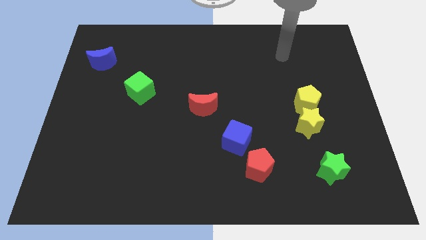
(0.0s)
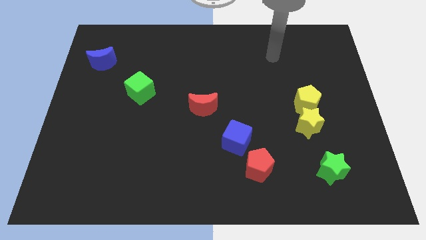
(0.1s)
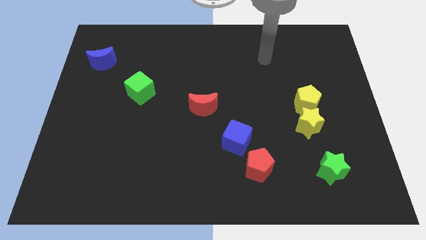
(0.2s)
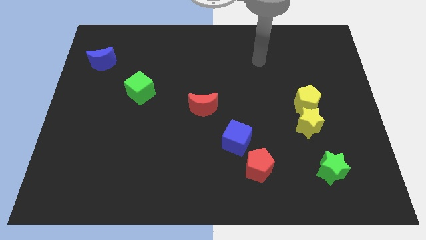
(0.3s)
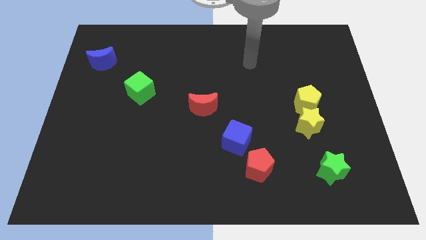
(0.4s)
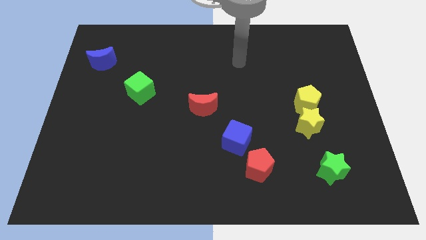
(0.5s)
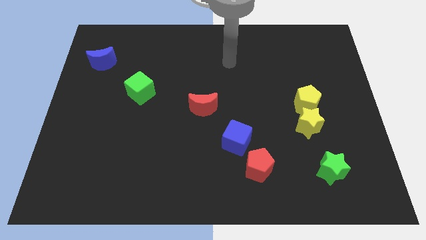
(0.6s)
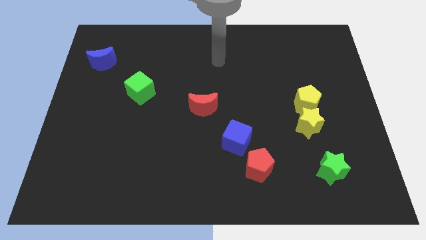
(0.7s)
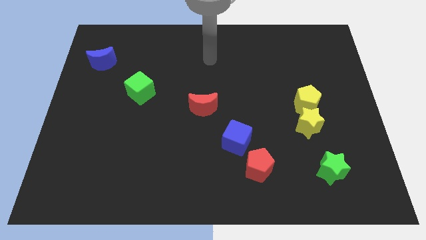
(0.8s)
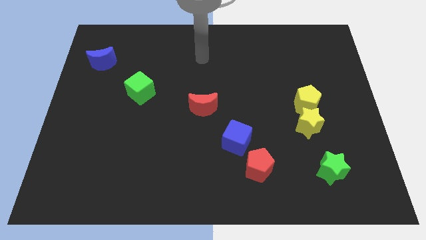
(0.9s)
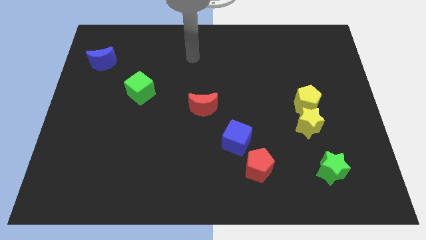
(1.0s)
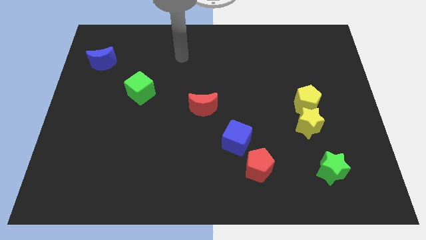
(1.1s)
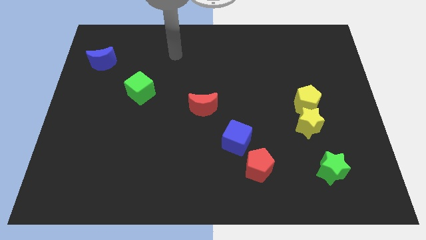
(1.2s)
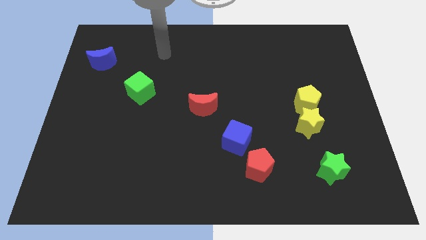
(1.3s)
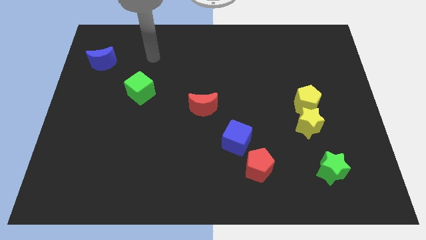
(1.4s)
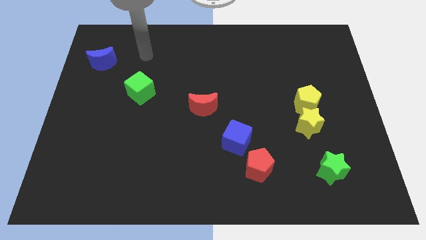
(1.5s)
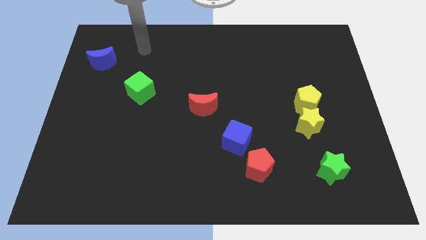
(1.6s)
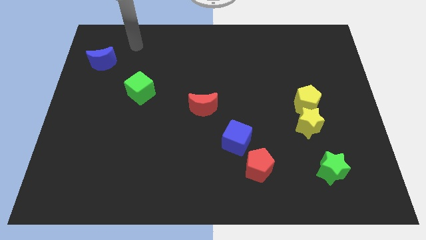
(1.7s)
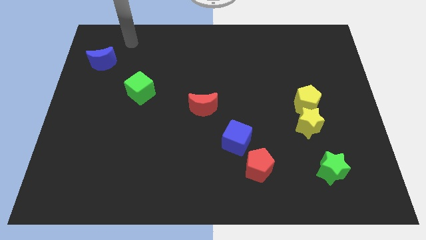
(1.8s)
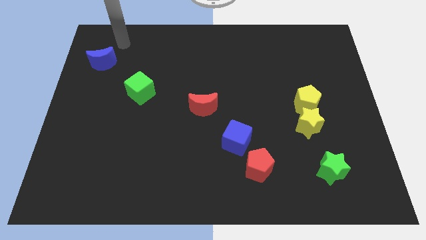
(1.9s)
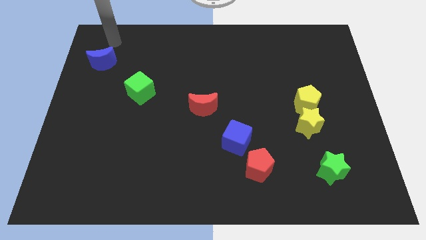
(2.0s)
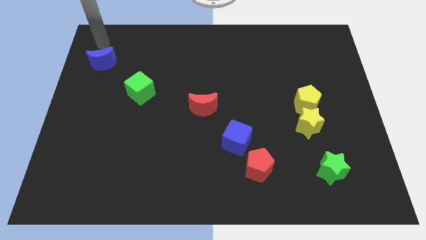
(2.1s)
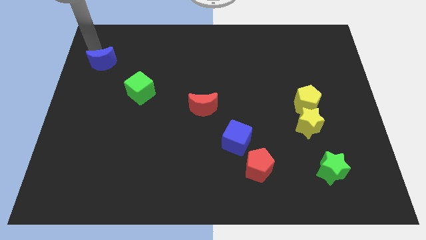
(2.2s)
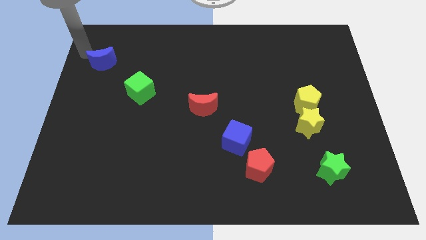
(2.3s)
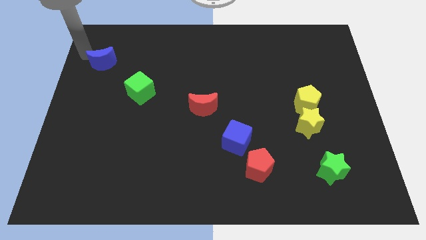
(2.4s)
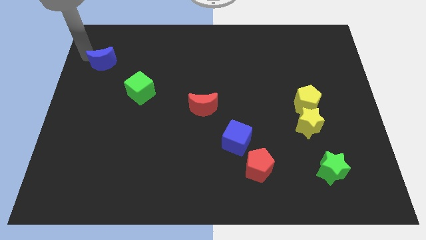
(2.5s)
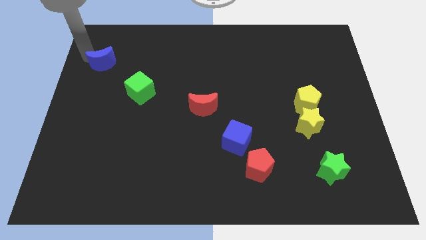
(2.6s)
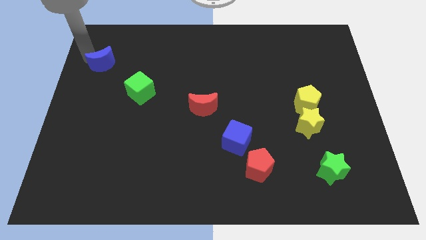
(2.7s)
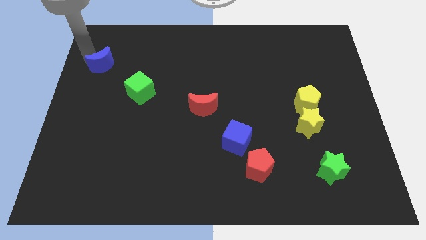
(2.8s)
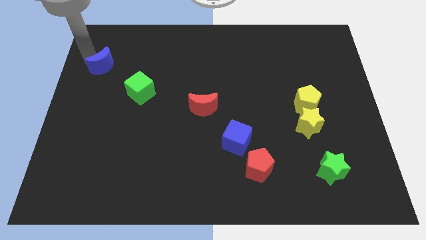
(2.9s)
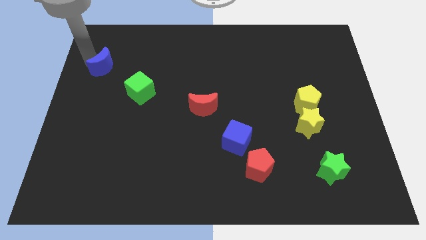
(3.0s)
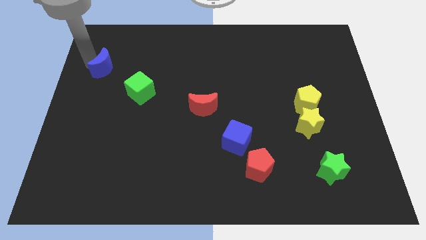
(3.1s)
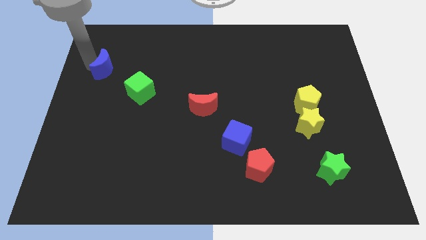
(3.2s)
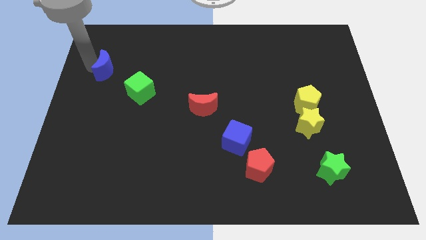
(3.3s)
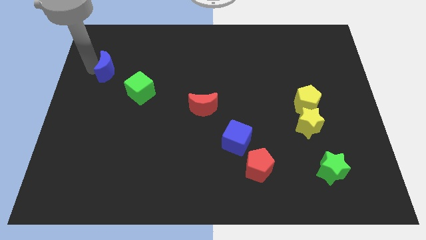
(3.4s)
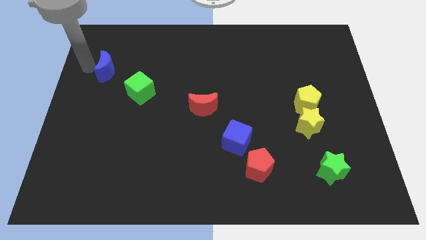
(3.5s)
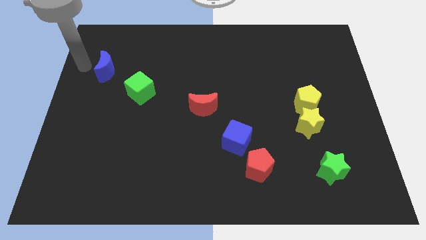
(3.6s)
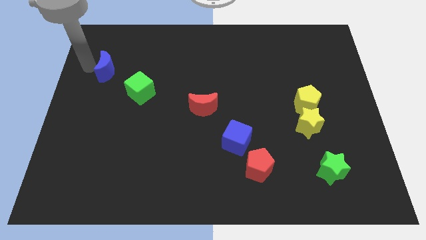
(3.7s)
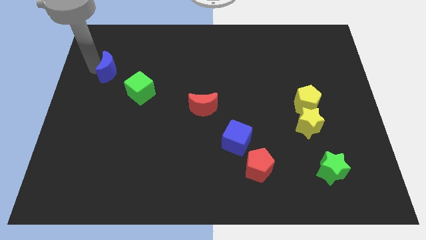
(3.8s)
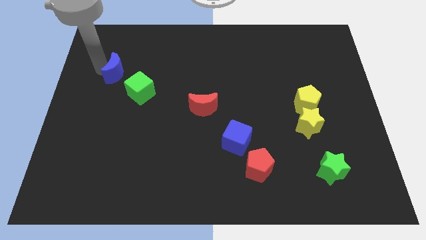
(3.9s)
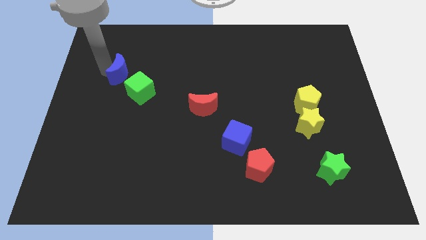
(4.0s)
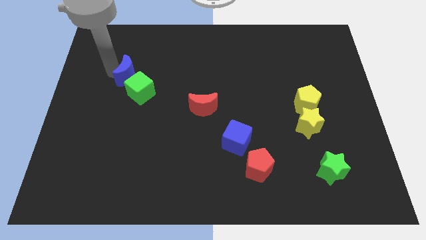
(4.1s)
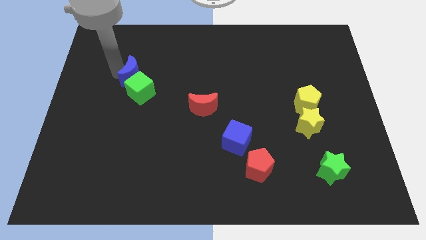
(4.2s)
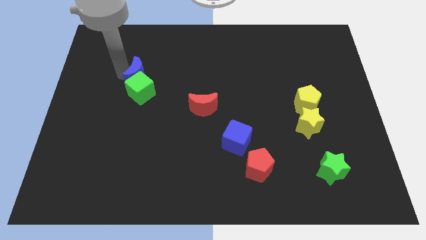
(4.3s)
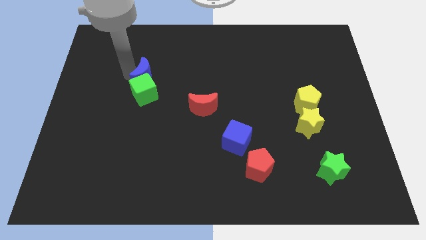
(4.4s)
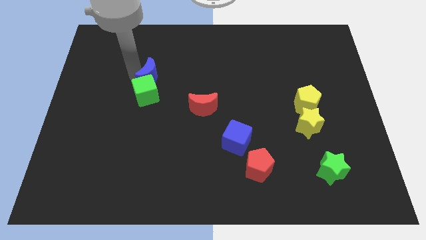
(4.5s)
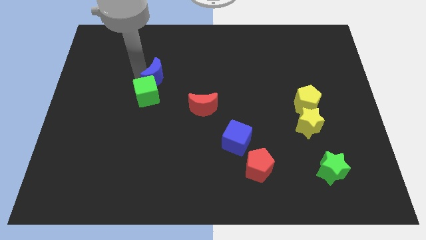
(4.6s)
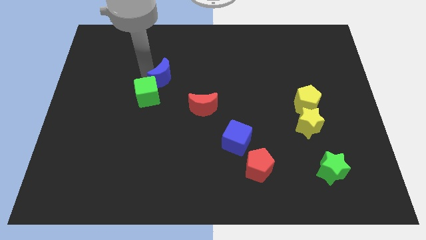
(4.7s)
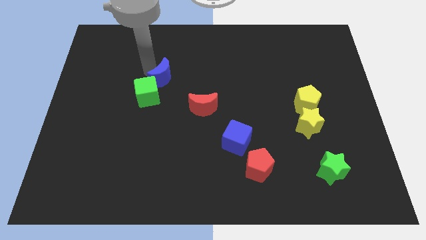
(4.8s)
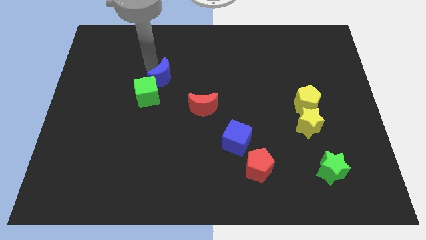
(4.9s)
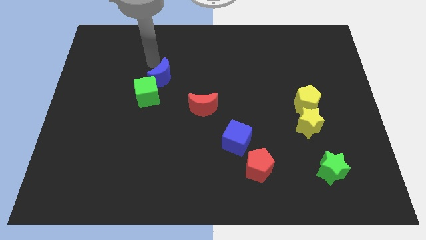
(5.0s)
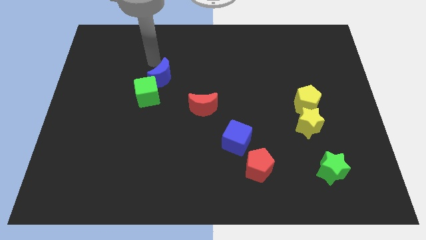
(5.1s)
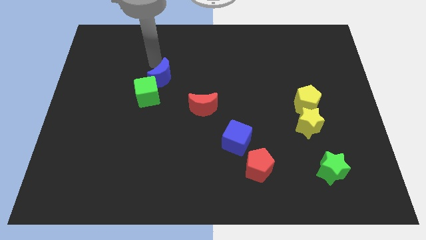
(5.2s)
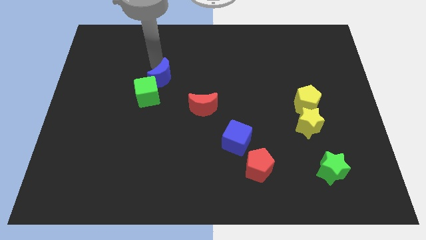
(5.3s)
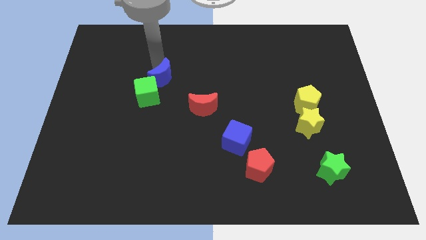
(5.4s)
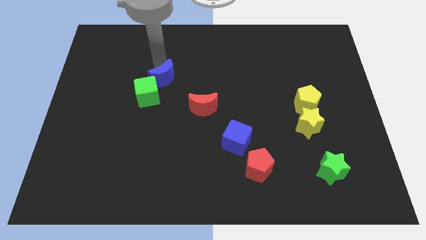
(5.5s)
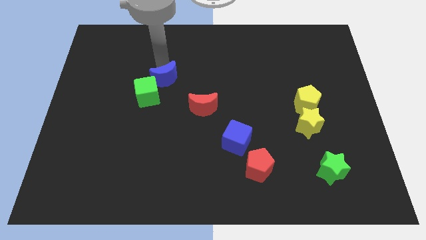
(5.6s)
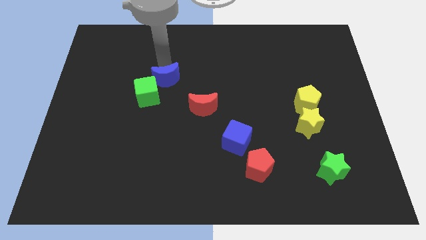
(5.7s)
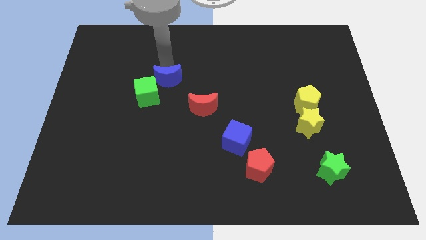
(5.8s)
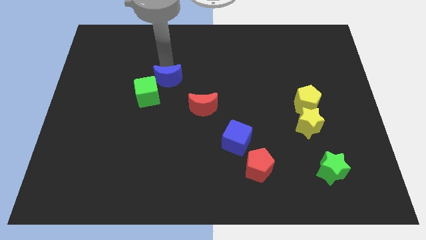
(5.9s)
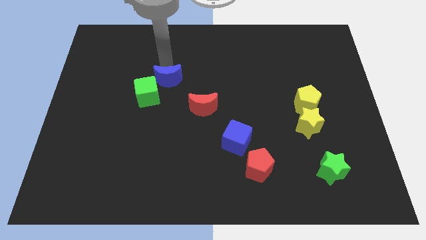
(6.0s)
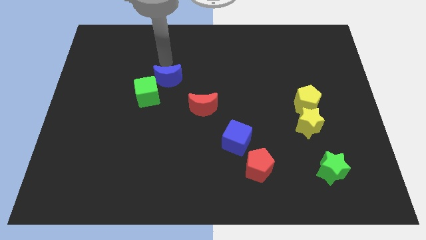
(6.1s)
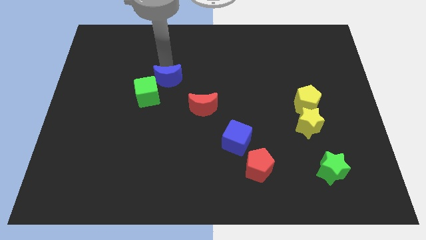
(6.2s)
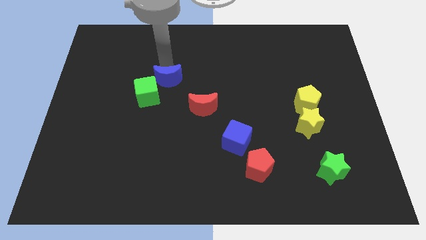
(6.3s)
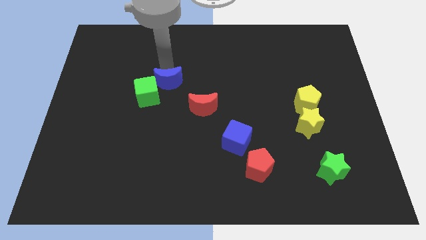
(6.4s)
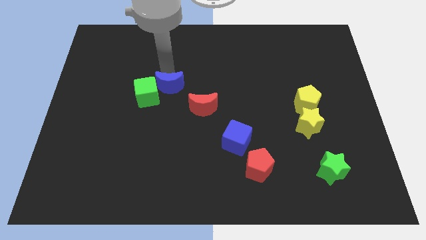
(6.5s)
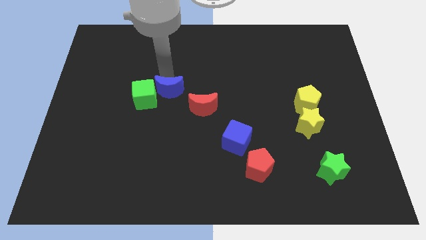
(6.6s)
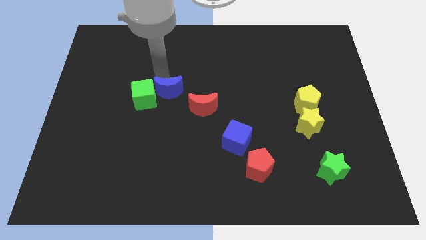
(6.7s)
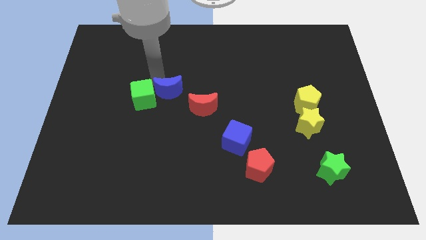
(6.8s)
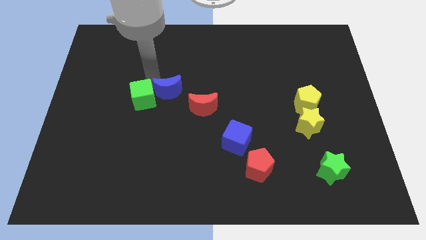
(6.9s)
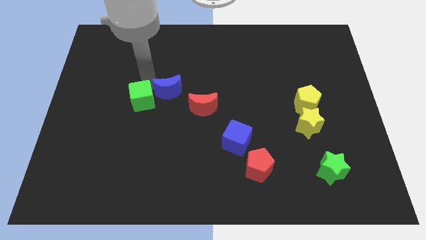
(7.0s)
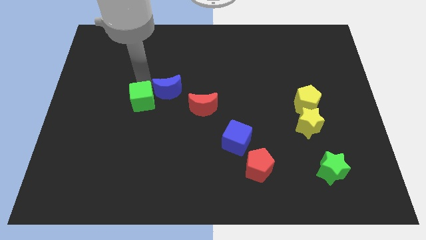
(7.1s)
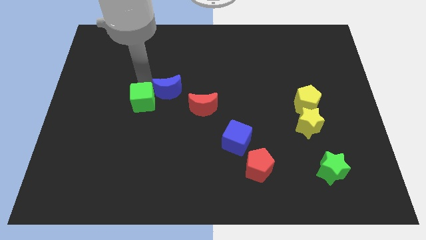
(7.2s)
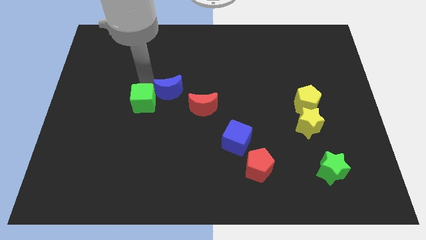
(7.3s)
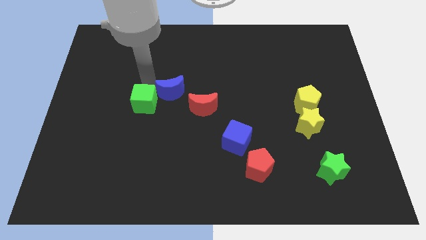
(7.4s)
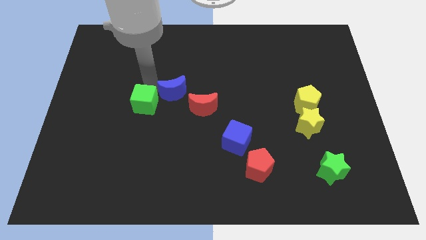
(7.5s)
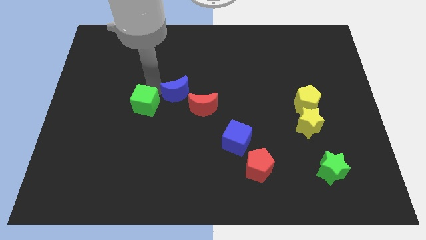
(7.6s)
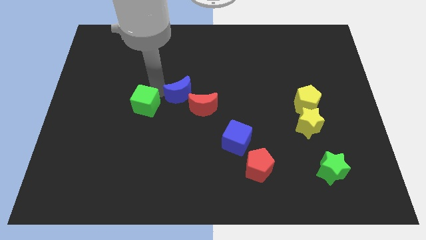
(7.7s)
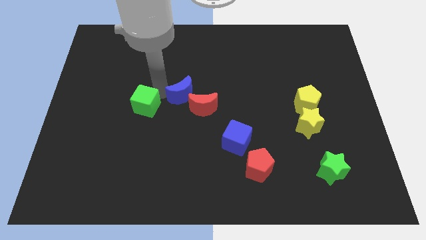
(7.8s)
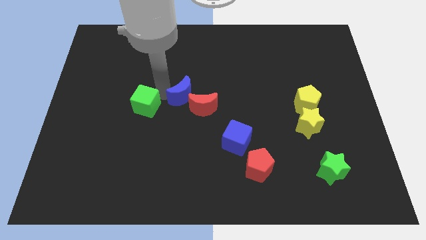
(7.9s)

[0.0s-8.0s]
push the blue moon towards the red moon
